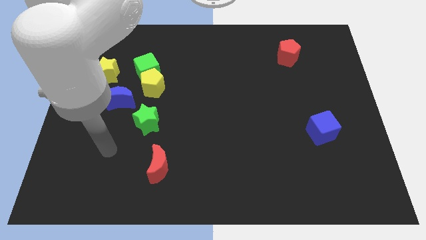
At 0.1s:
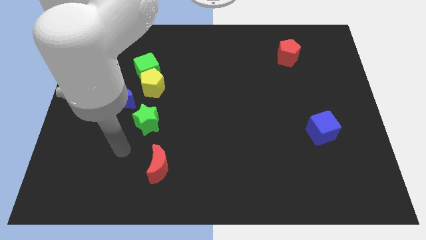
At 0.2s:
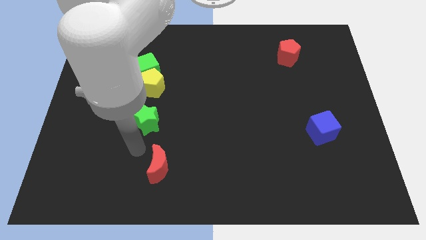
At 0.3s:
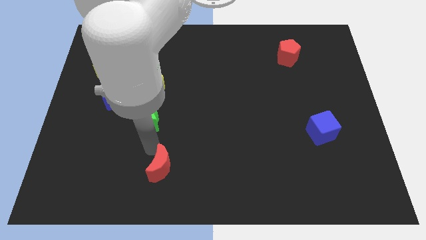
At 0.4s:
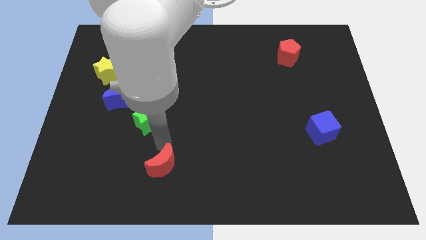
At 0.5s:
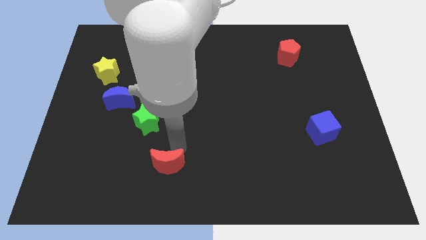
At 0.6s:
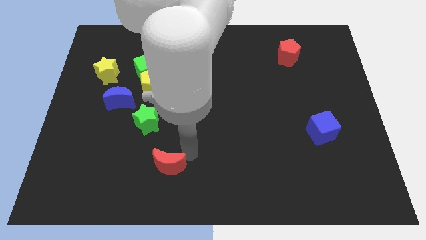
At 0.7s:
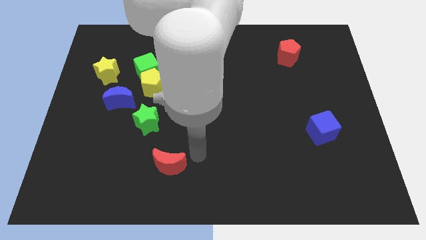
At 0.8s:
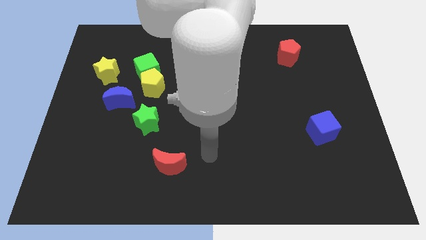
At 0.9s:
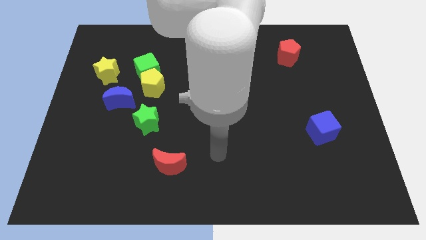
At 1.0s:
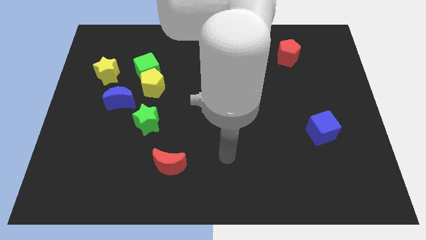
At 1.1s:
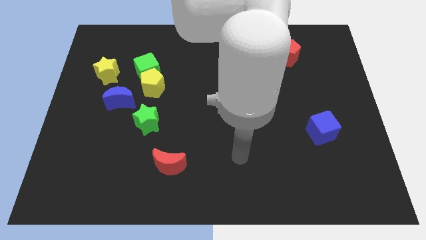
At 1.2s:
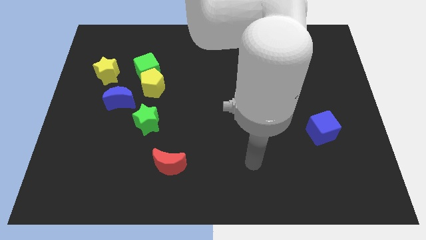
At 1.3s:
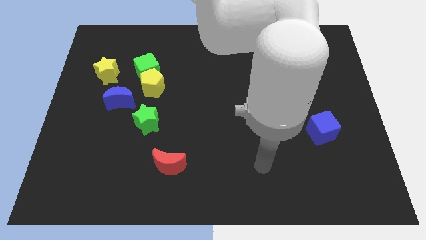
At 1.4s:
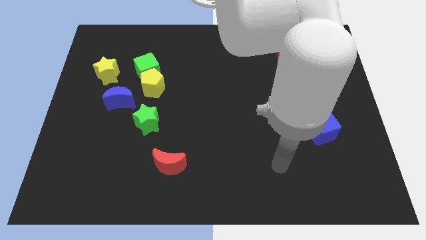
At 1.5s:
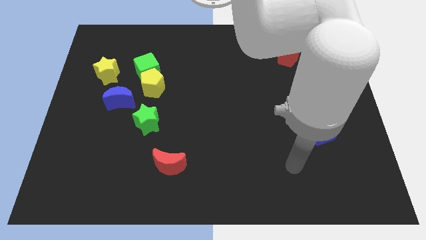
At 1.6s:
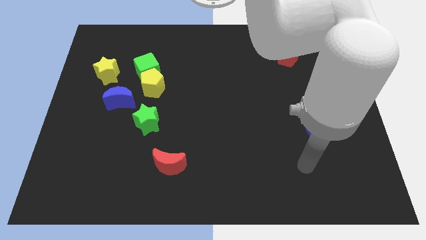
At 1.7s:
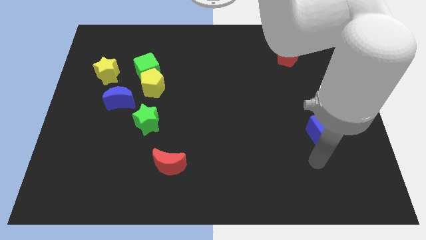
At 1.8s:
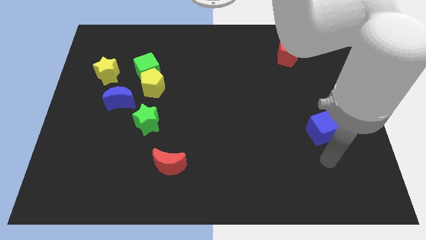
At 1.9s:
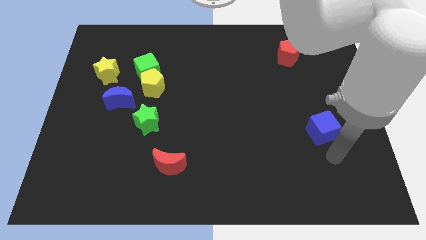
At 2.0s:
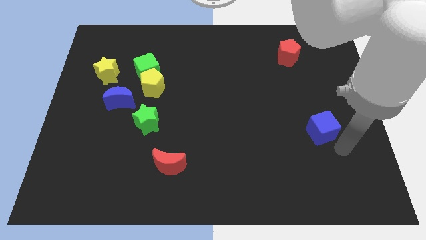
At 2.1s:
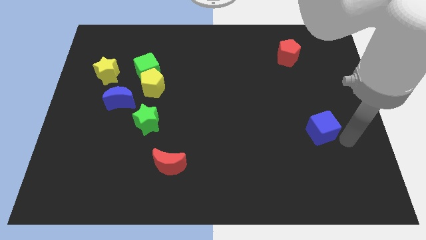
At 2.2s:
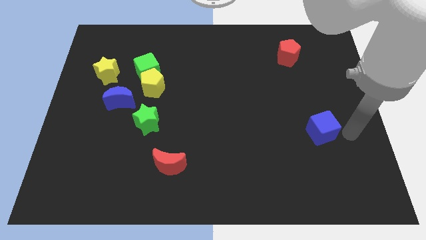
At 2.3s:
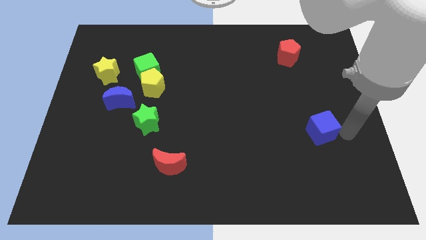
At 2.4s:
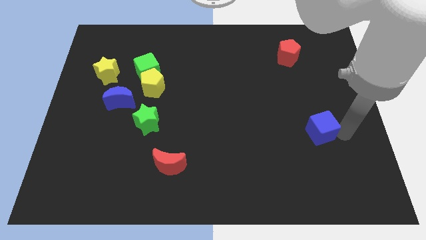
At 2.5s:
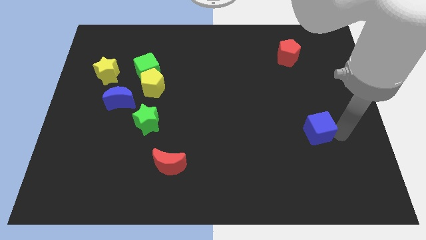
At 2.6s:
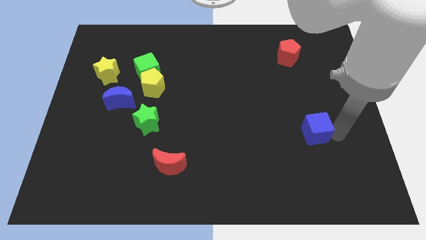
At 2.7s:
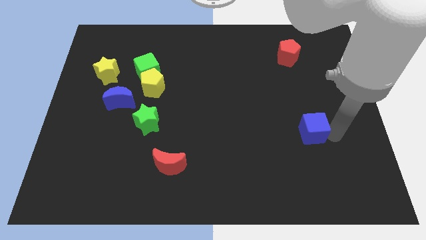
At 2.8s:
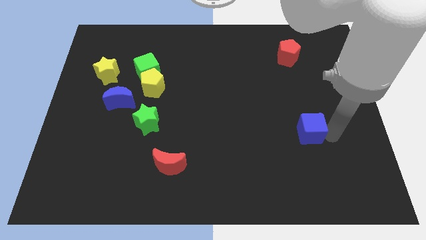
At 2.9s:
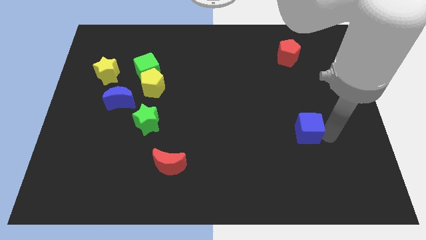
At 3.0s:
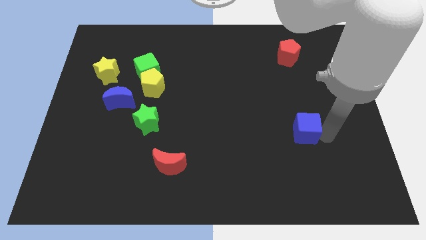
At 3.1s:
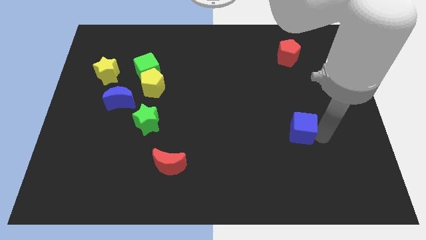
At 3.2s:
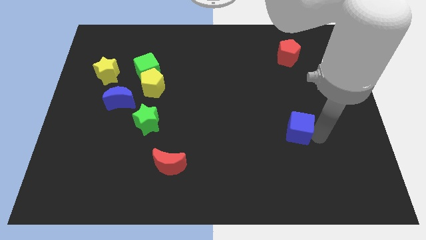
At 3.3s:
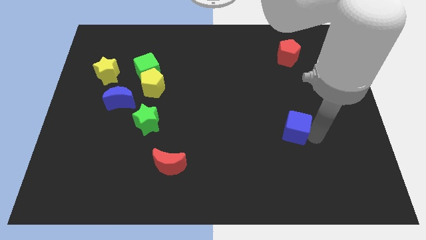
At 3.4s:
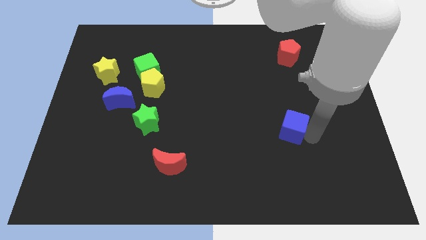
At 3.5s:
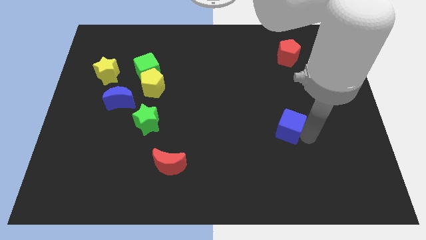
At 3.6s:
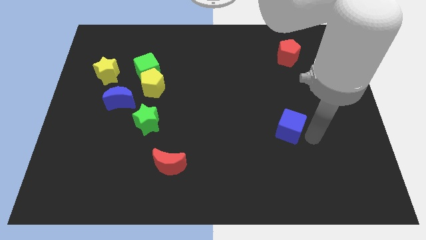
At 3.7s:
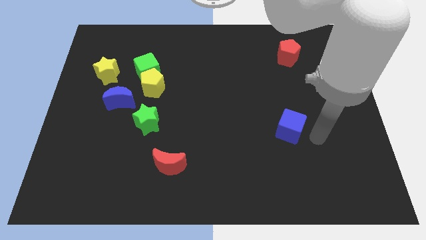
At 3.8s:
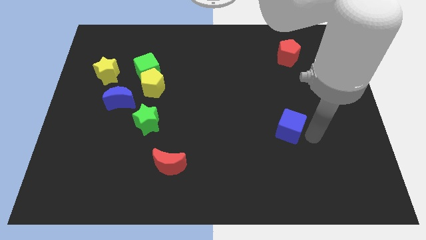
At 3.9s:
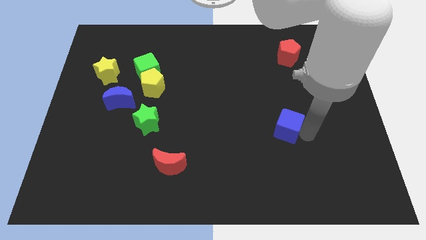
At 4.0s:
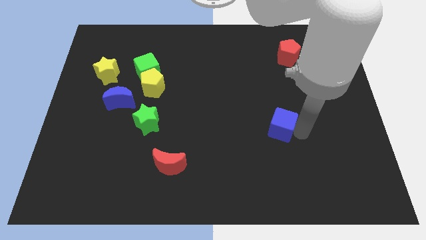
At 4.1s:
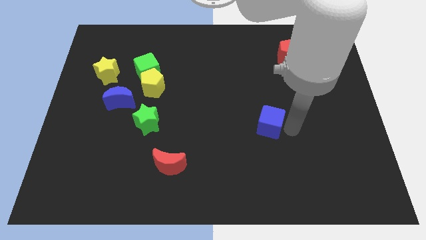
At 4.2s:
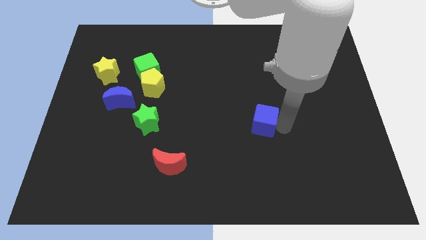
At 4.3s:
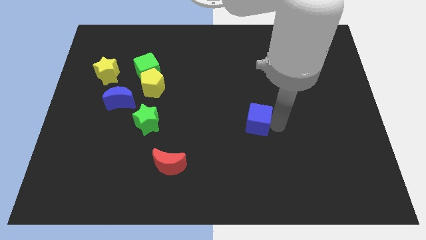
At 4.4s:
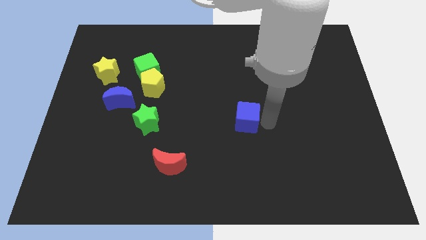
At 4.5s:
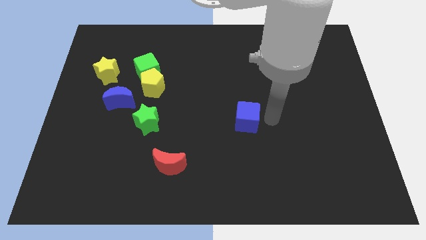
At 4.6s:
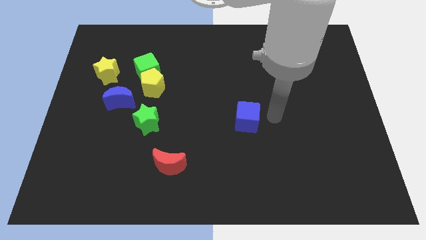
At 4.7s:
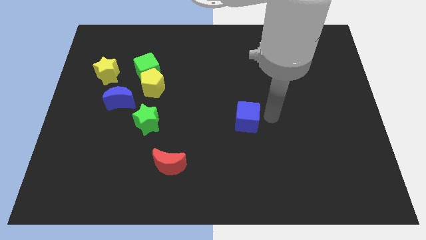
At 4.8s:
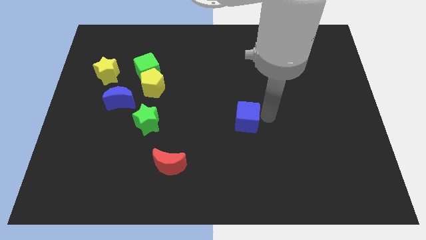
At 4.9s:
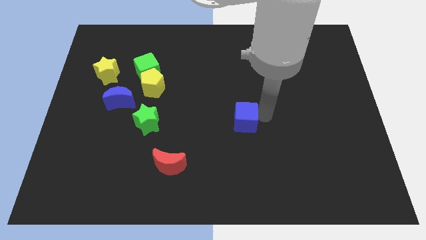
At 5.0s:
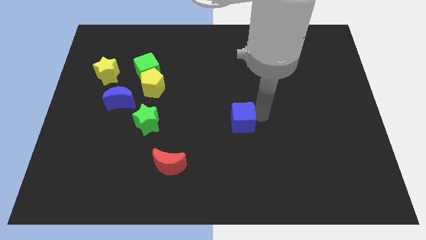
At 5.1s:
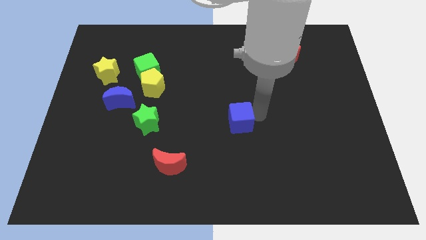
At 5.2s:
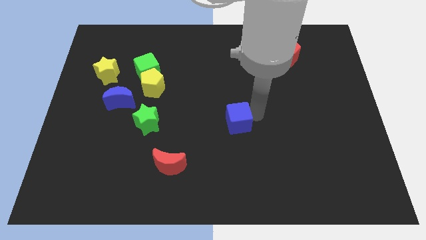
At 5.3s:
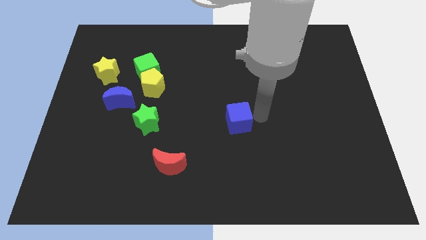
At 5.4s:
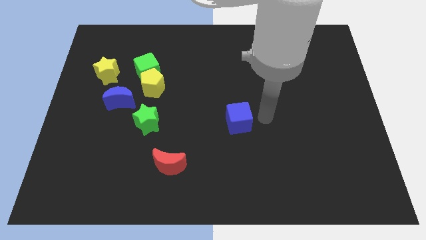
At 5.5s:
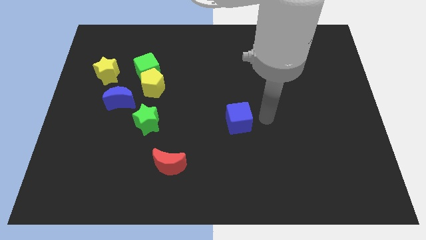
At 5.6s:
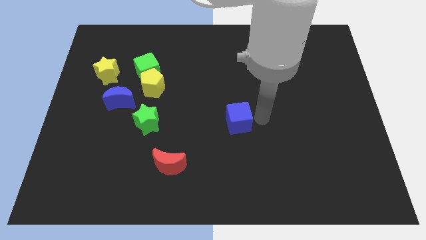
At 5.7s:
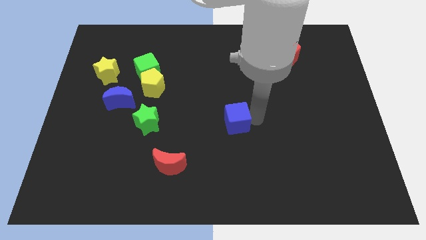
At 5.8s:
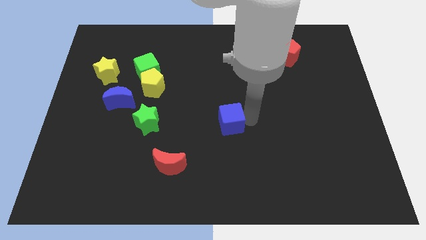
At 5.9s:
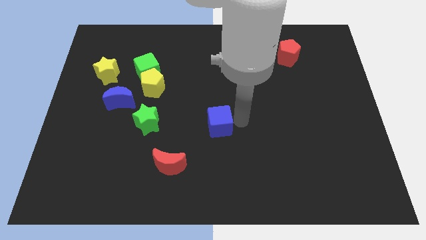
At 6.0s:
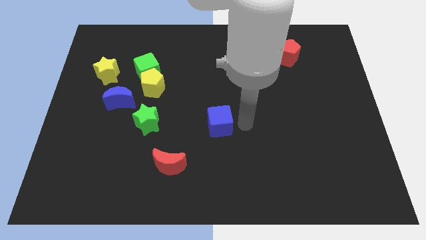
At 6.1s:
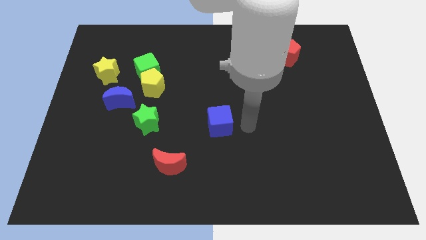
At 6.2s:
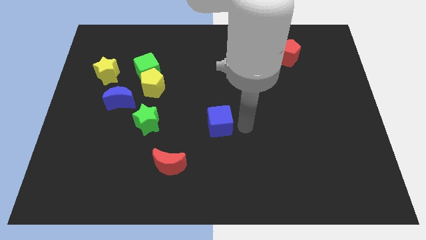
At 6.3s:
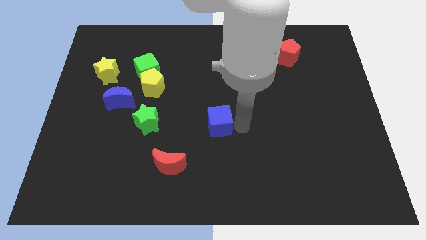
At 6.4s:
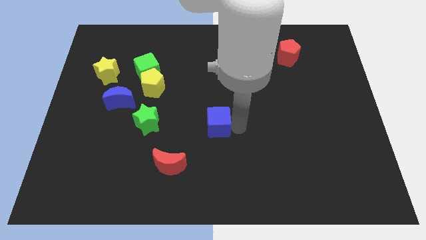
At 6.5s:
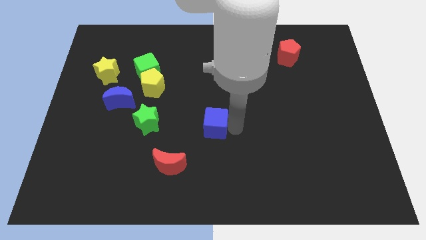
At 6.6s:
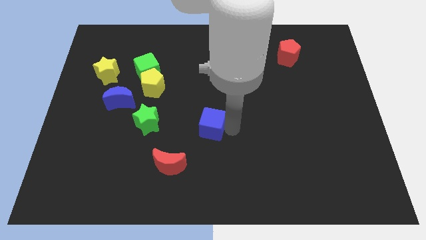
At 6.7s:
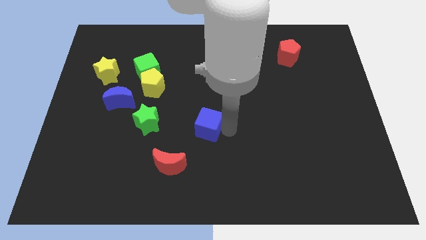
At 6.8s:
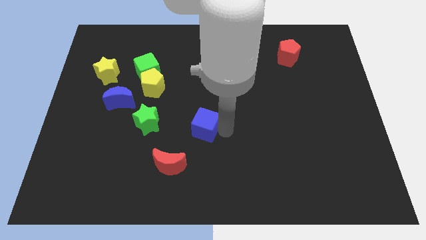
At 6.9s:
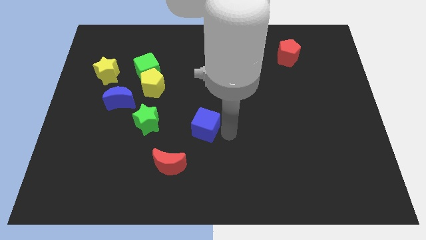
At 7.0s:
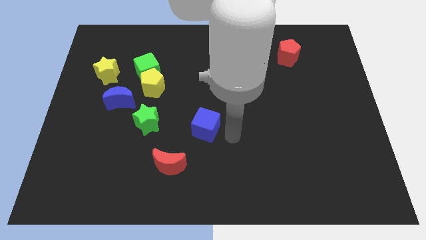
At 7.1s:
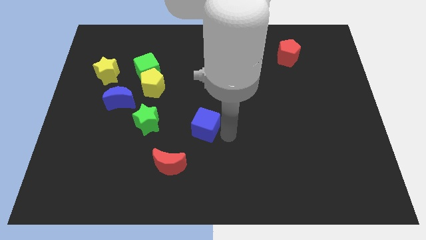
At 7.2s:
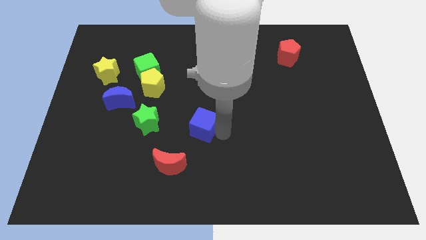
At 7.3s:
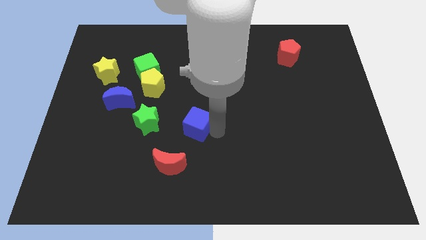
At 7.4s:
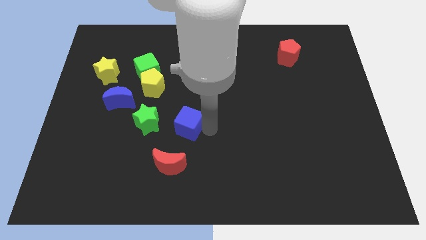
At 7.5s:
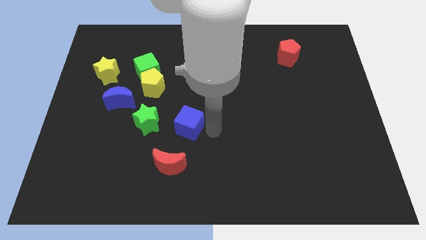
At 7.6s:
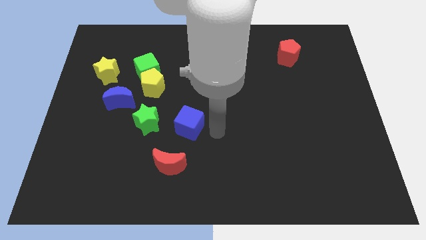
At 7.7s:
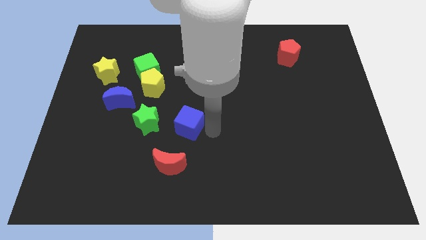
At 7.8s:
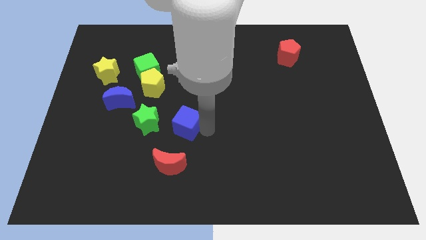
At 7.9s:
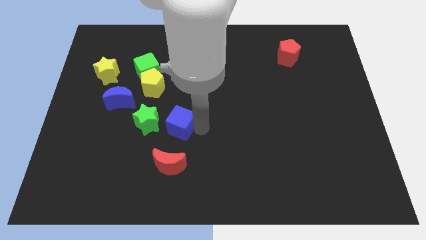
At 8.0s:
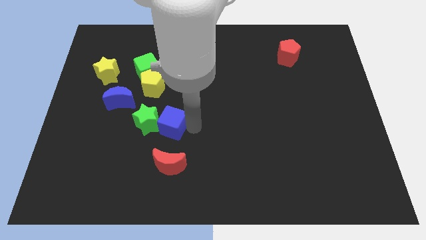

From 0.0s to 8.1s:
move the blue cube next to the green star
